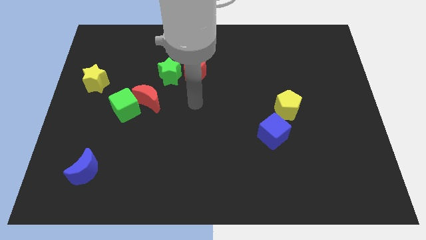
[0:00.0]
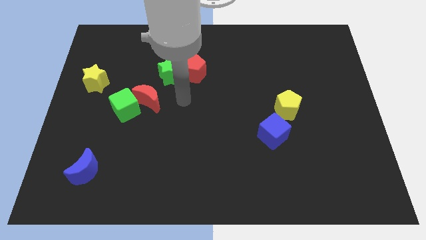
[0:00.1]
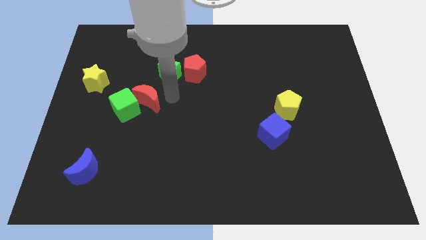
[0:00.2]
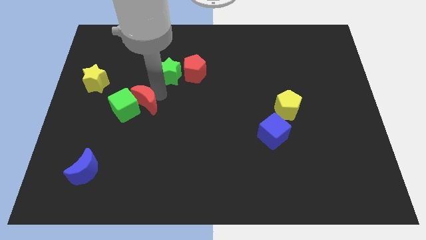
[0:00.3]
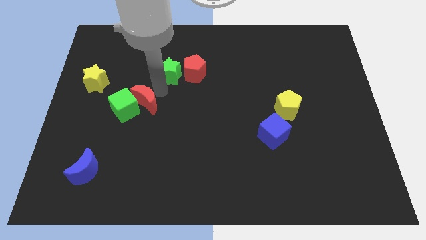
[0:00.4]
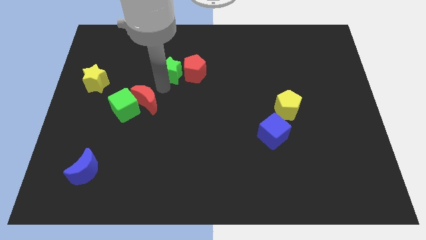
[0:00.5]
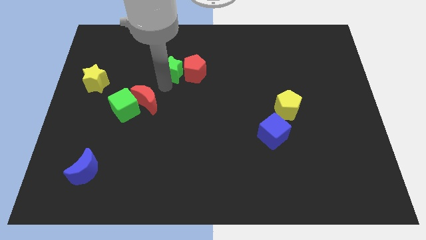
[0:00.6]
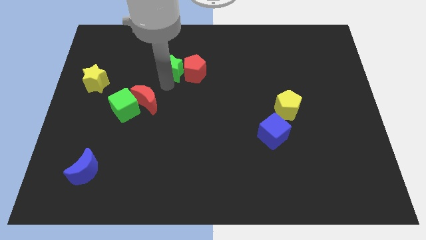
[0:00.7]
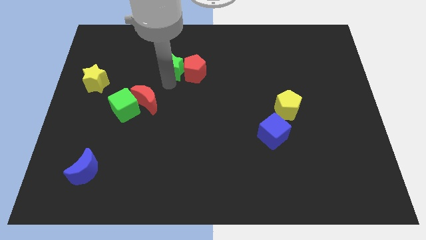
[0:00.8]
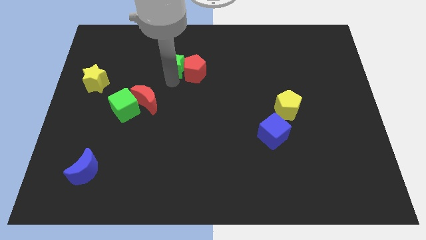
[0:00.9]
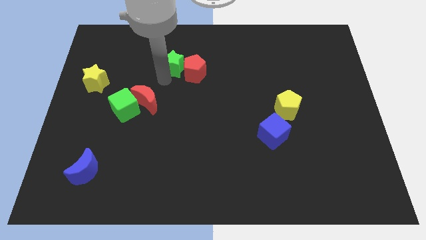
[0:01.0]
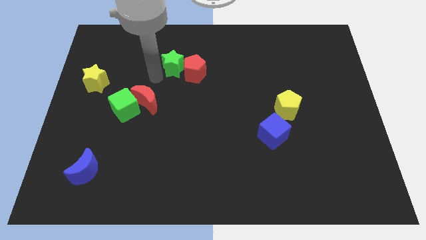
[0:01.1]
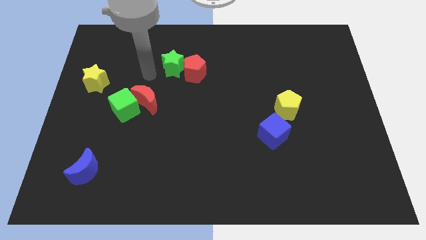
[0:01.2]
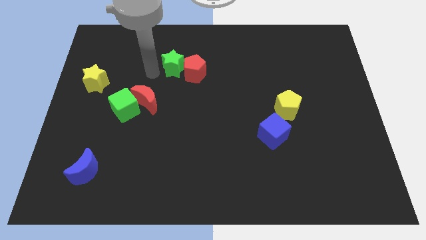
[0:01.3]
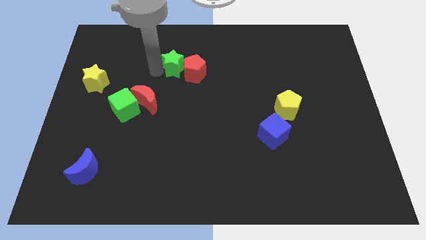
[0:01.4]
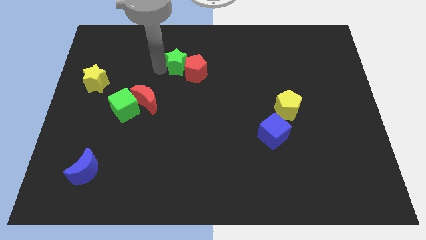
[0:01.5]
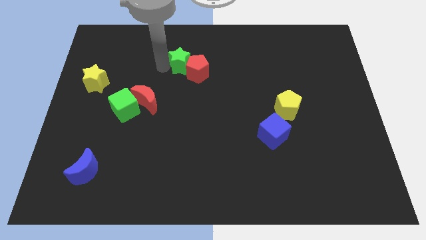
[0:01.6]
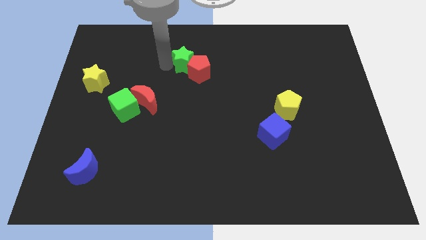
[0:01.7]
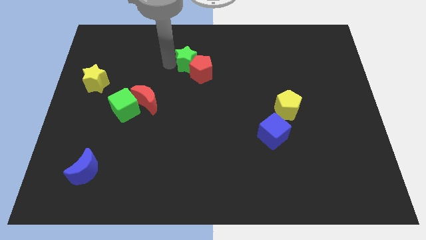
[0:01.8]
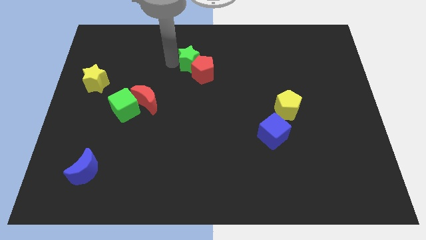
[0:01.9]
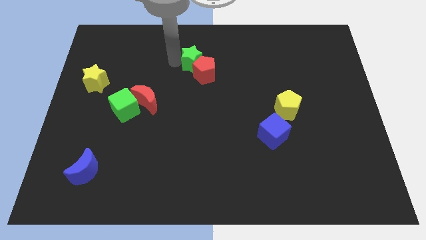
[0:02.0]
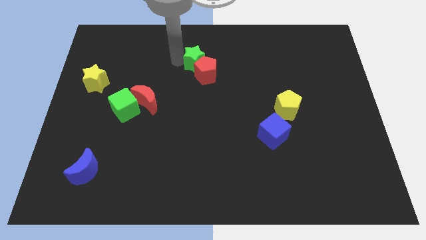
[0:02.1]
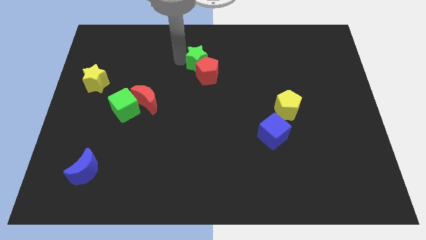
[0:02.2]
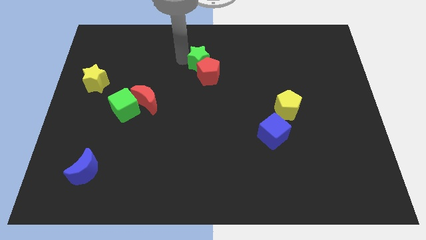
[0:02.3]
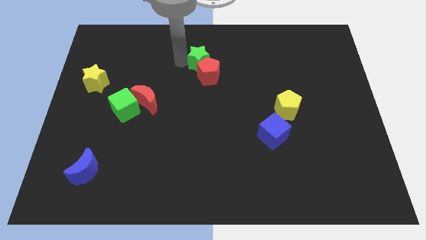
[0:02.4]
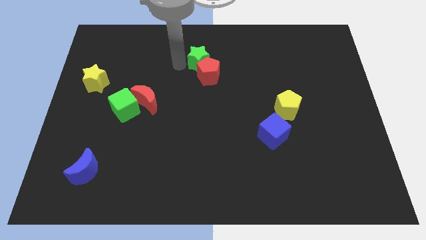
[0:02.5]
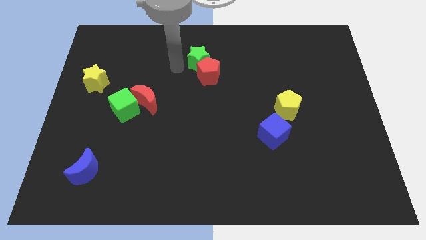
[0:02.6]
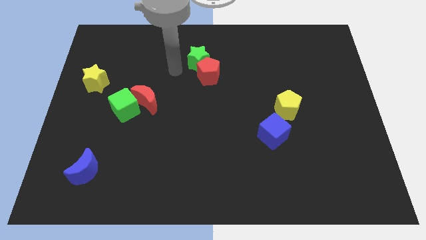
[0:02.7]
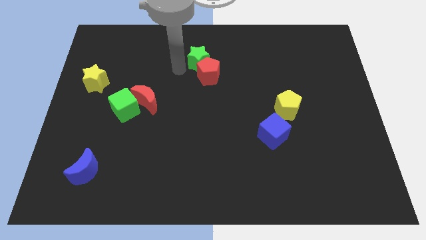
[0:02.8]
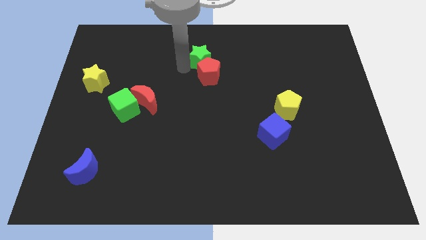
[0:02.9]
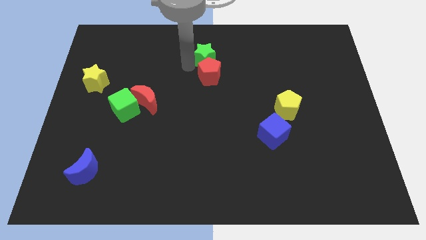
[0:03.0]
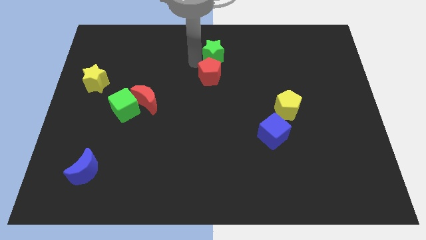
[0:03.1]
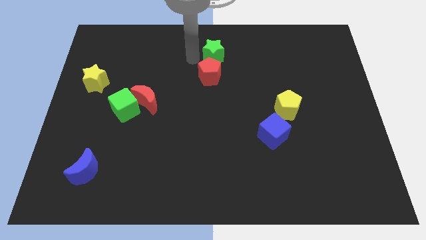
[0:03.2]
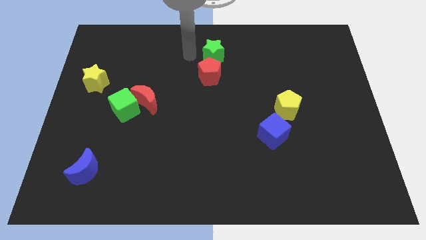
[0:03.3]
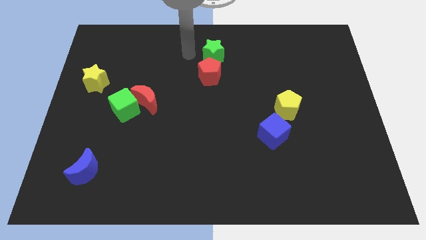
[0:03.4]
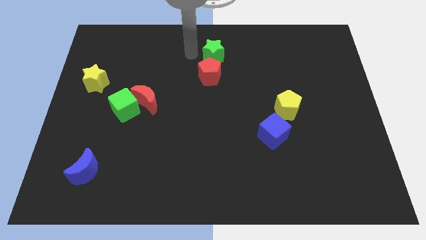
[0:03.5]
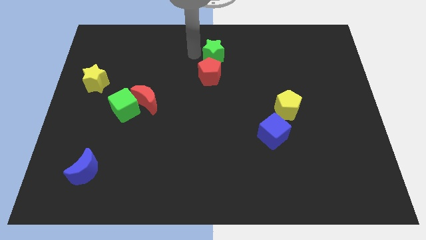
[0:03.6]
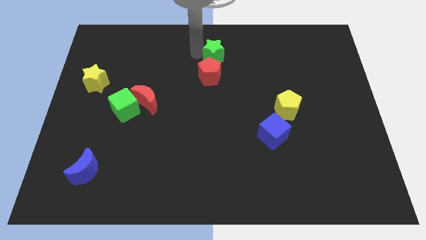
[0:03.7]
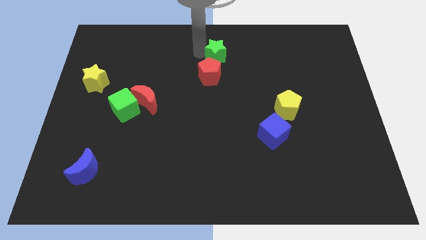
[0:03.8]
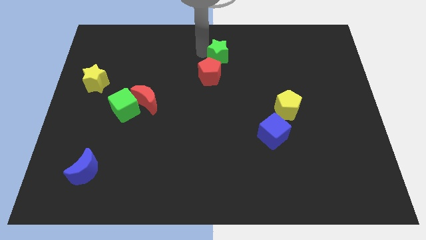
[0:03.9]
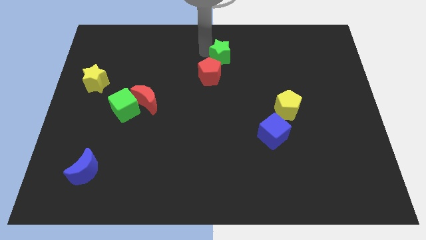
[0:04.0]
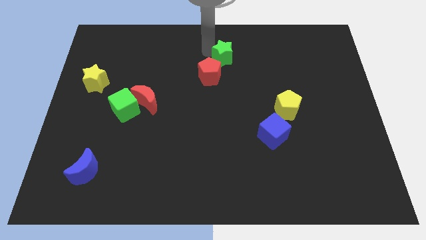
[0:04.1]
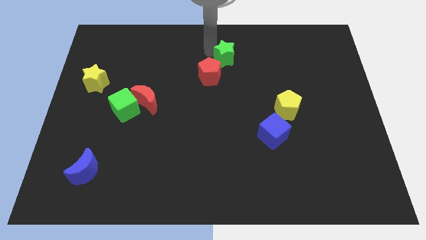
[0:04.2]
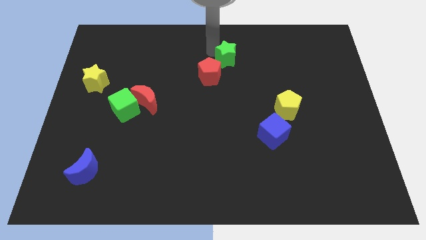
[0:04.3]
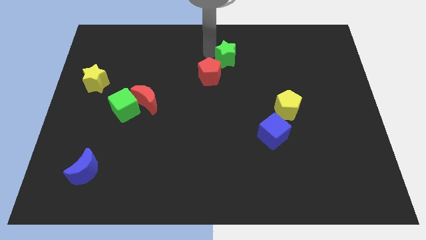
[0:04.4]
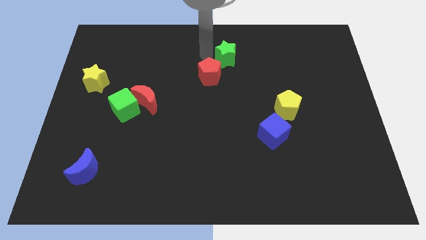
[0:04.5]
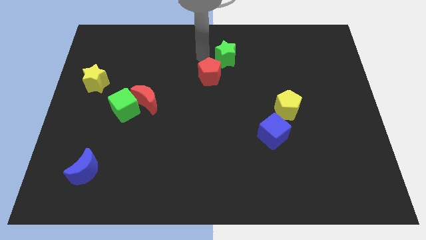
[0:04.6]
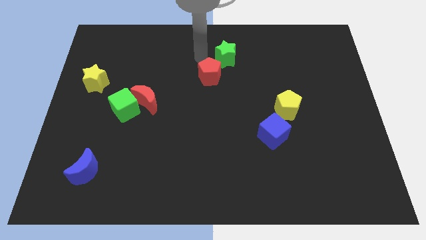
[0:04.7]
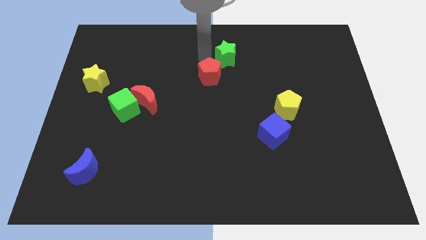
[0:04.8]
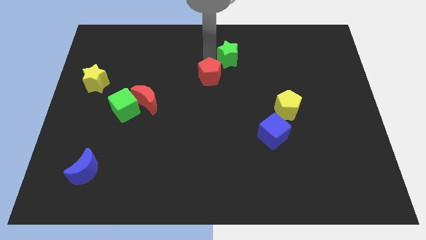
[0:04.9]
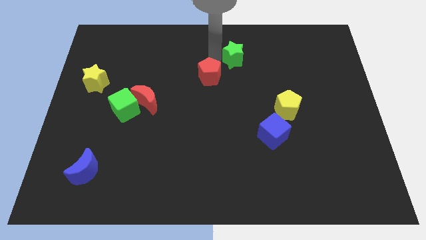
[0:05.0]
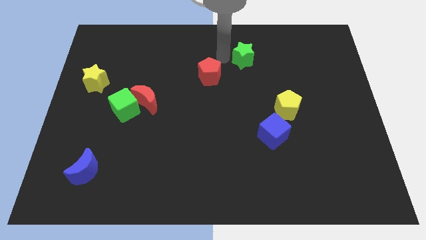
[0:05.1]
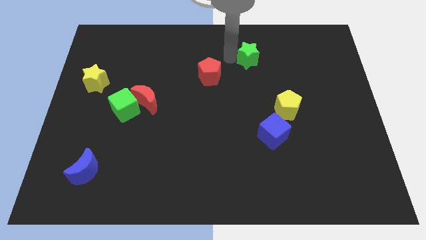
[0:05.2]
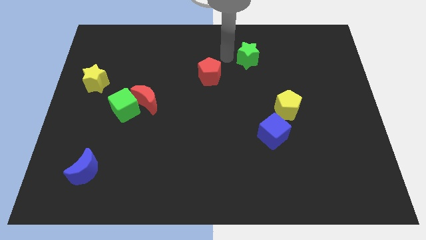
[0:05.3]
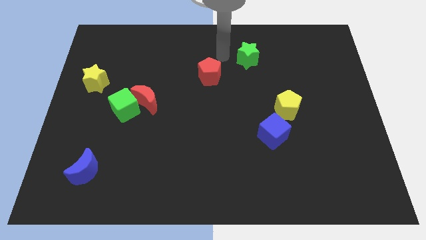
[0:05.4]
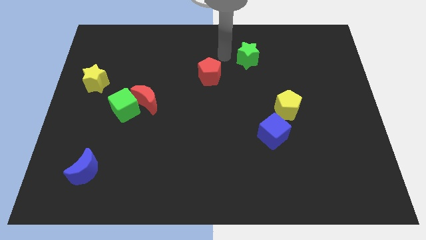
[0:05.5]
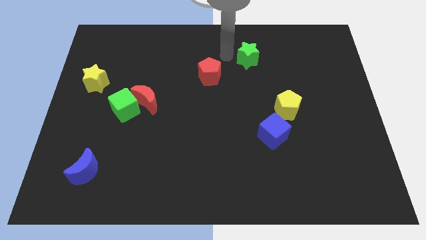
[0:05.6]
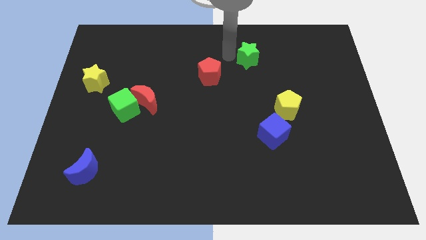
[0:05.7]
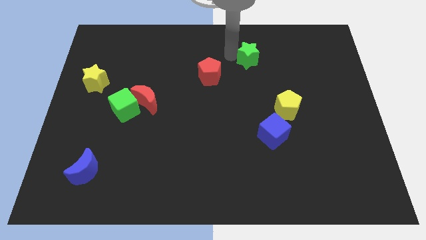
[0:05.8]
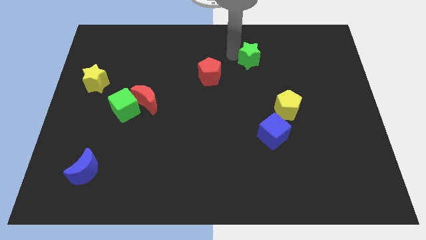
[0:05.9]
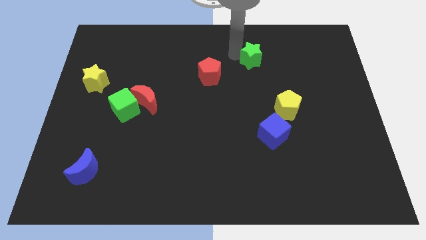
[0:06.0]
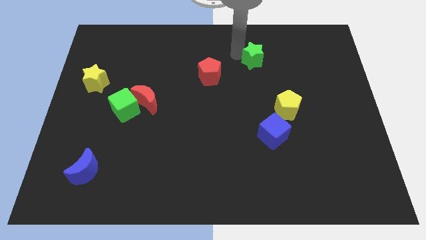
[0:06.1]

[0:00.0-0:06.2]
push the green star right

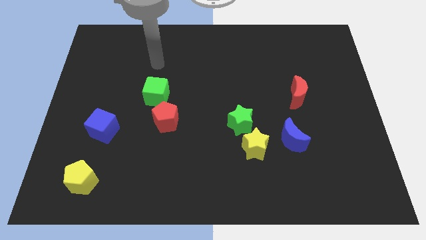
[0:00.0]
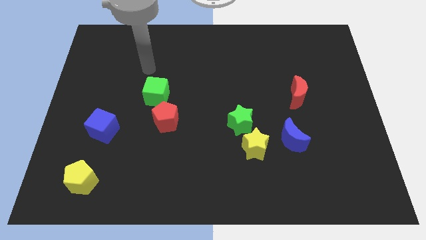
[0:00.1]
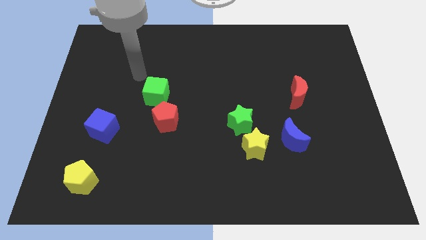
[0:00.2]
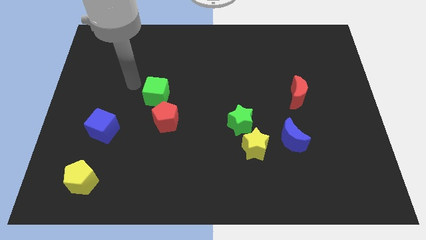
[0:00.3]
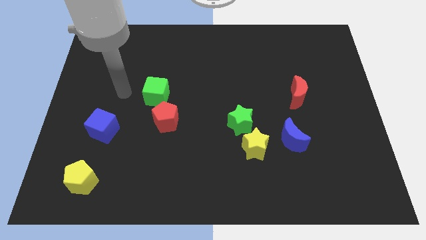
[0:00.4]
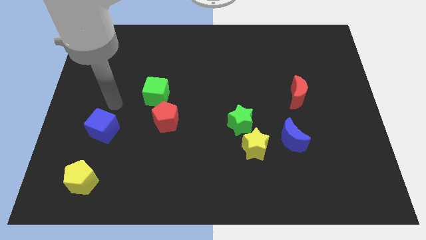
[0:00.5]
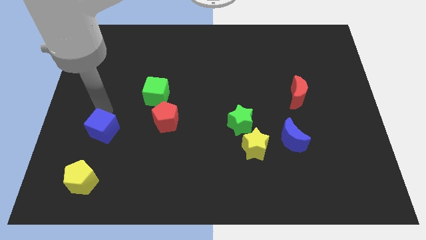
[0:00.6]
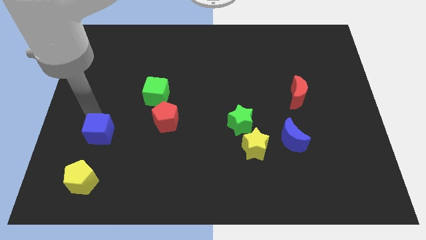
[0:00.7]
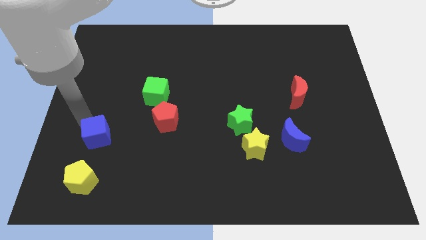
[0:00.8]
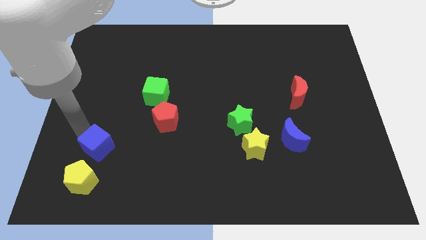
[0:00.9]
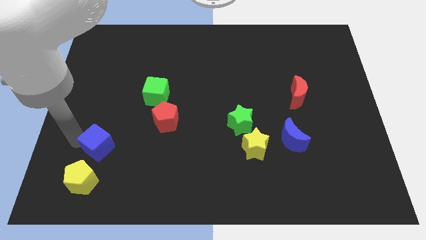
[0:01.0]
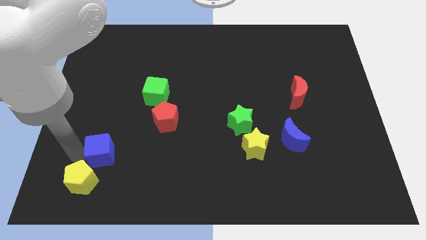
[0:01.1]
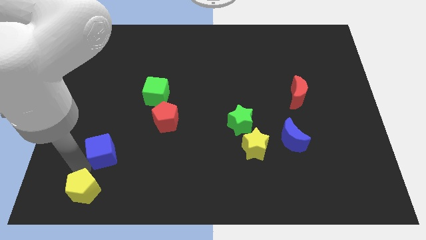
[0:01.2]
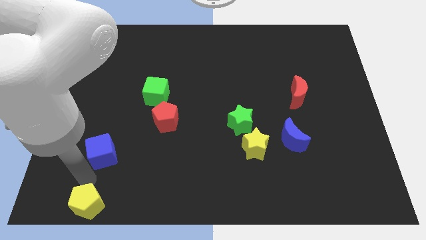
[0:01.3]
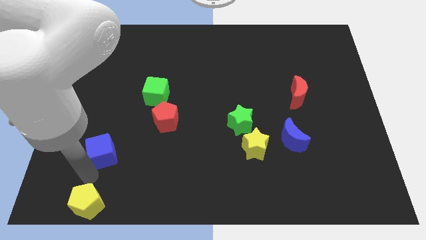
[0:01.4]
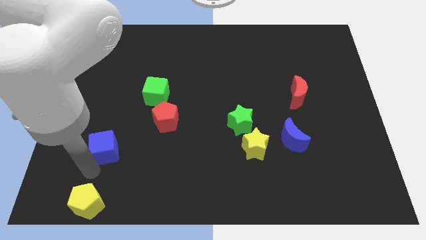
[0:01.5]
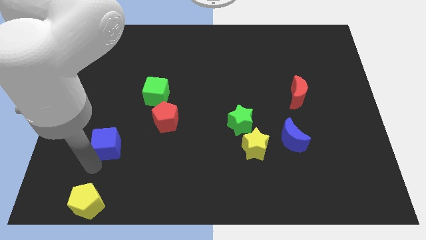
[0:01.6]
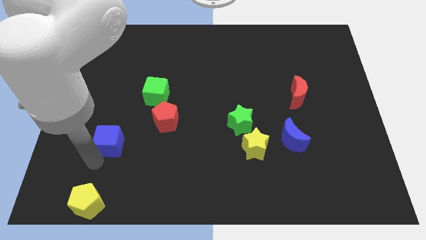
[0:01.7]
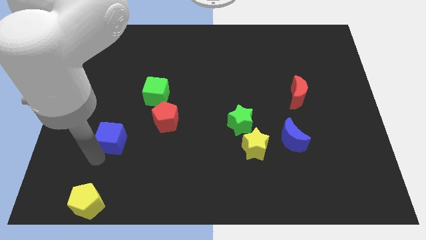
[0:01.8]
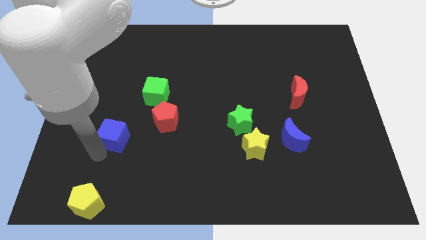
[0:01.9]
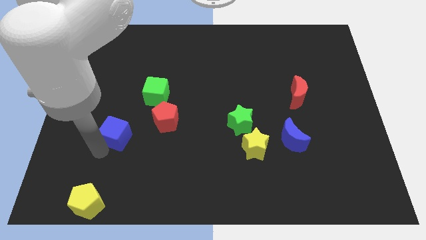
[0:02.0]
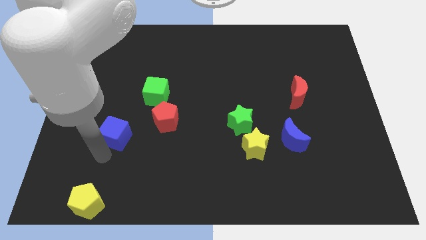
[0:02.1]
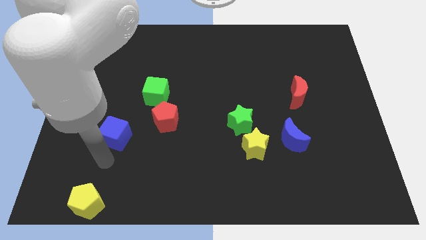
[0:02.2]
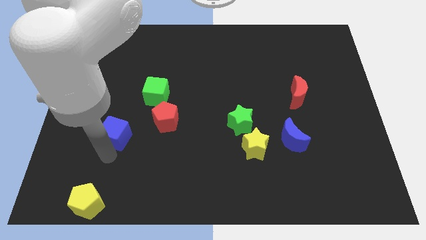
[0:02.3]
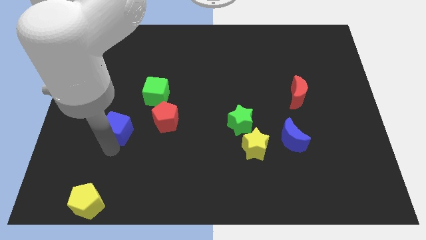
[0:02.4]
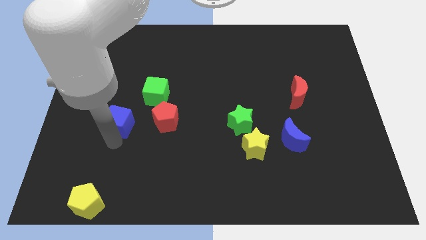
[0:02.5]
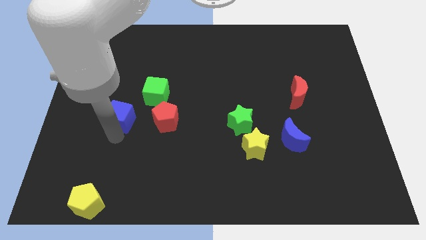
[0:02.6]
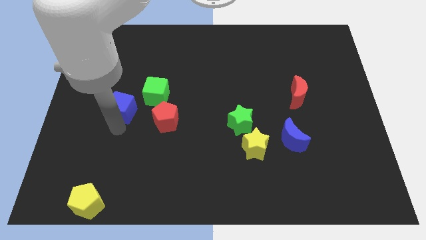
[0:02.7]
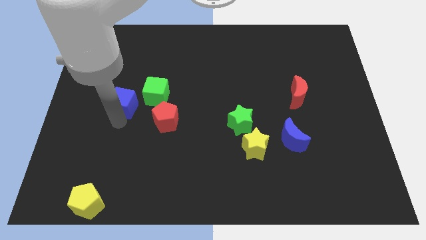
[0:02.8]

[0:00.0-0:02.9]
slightly move the blue cube diagonally upwards and to the right
